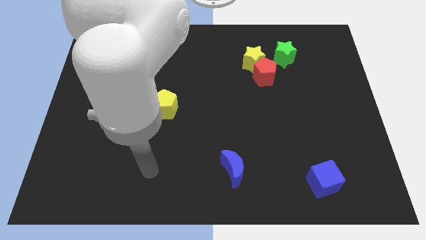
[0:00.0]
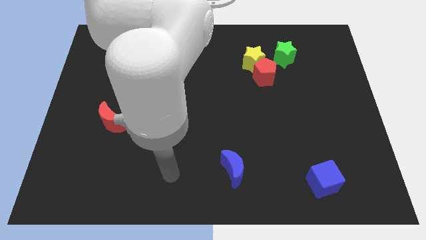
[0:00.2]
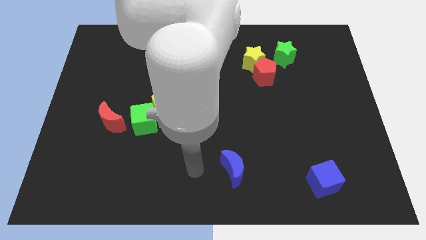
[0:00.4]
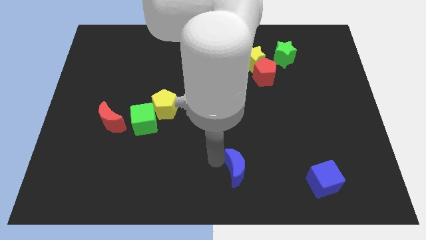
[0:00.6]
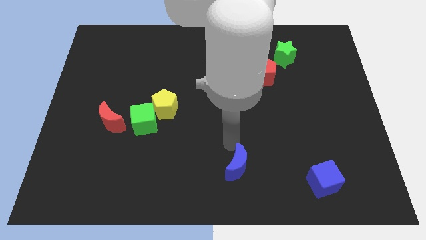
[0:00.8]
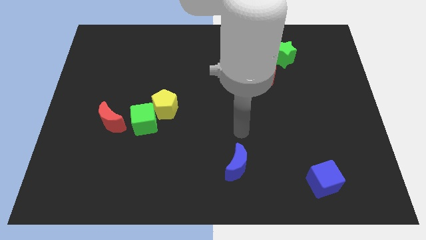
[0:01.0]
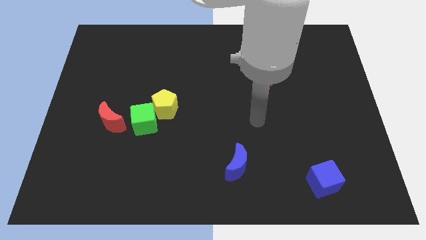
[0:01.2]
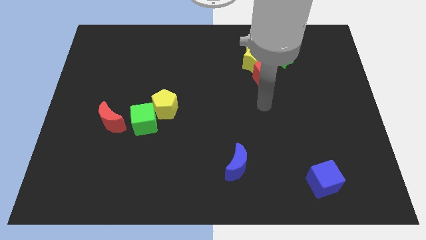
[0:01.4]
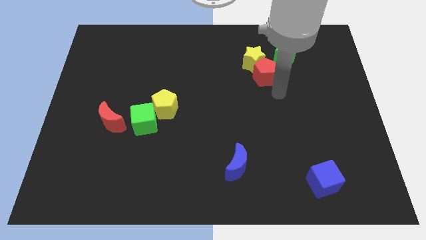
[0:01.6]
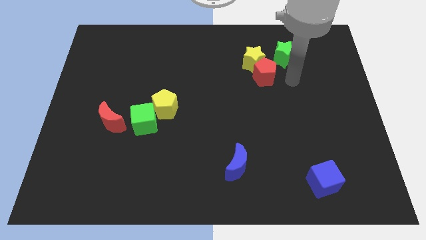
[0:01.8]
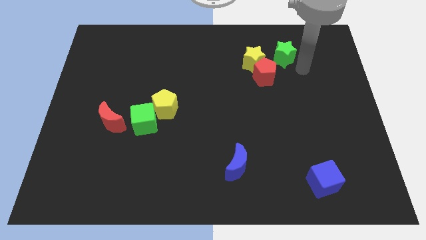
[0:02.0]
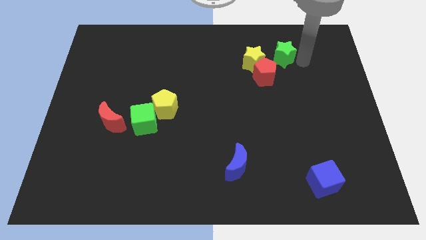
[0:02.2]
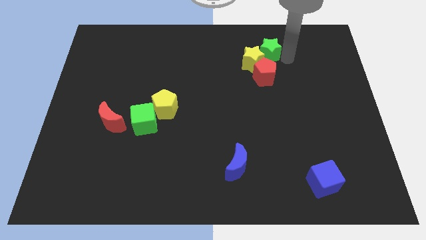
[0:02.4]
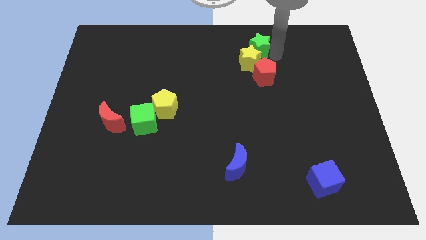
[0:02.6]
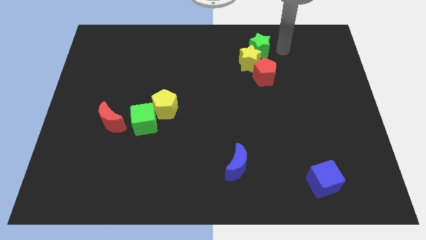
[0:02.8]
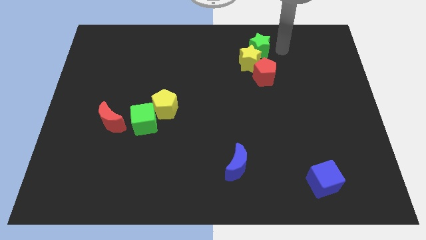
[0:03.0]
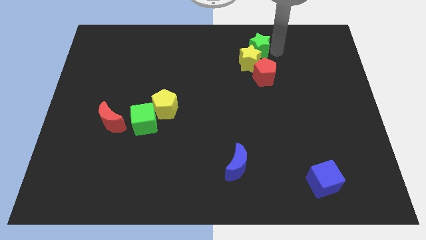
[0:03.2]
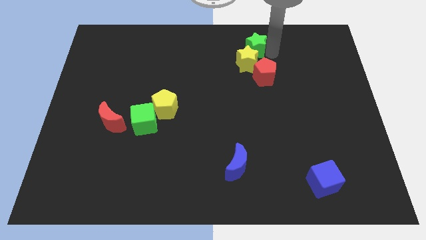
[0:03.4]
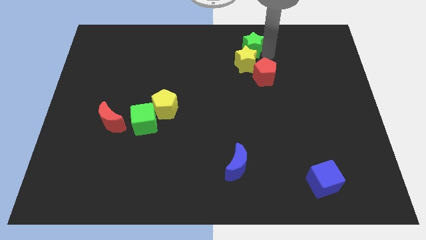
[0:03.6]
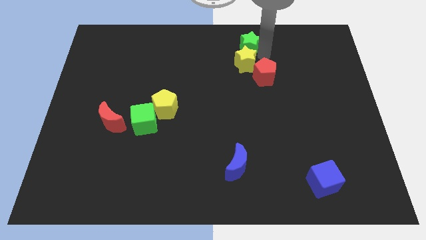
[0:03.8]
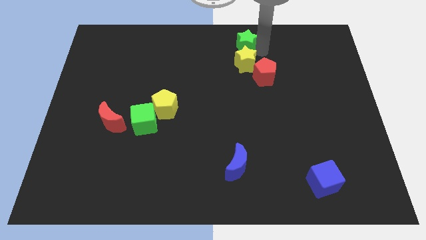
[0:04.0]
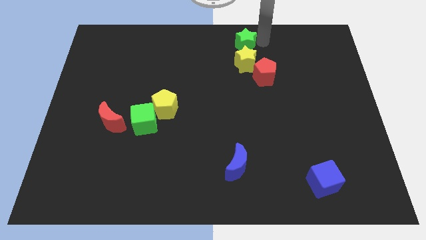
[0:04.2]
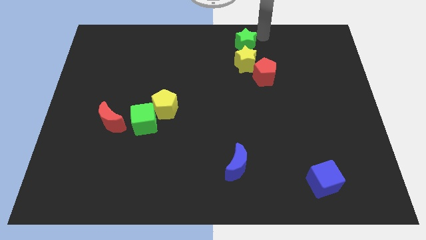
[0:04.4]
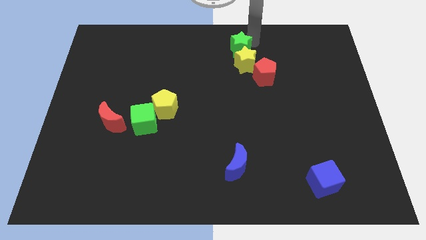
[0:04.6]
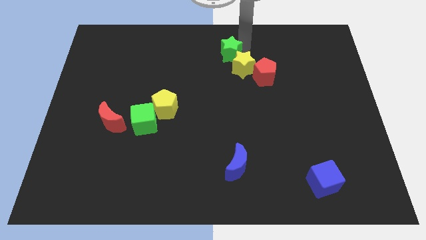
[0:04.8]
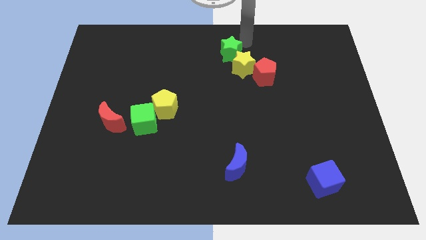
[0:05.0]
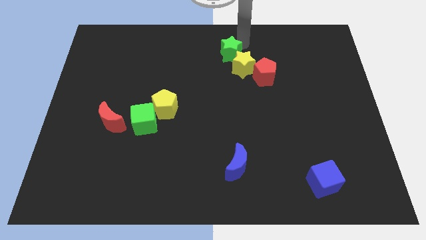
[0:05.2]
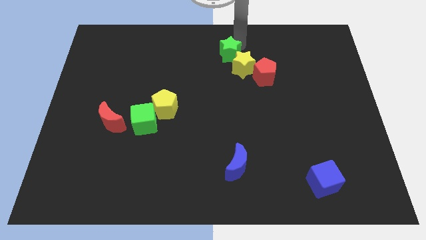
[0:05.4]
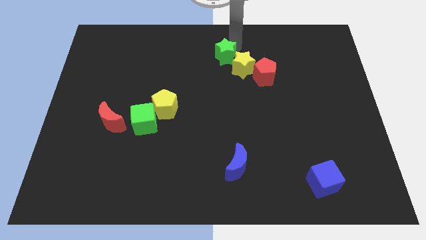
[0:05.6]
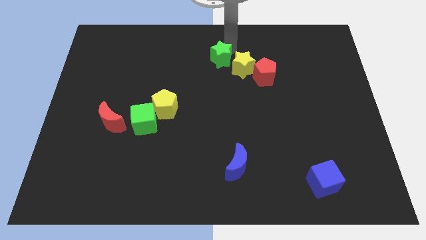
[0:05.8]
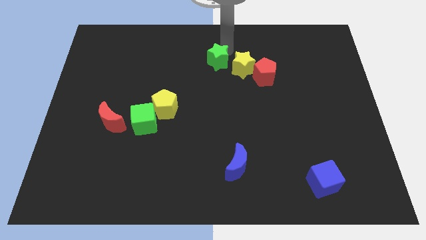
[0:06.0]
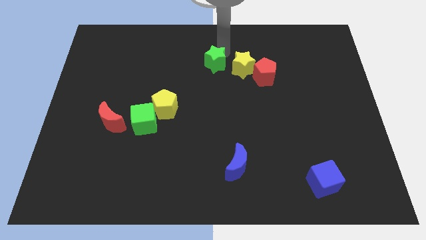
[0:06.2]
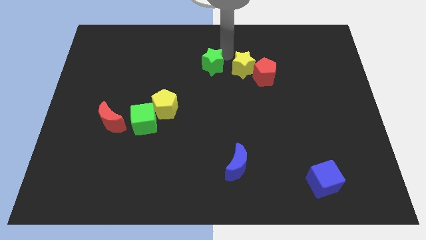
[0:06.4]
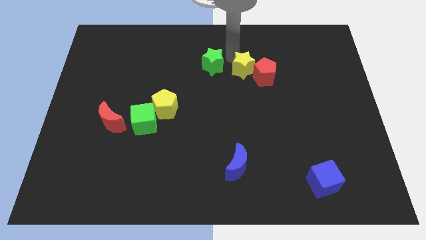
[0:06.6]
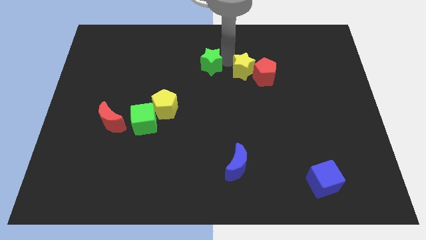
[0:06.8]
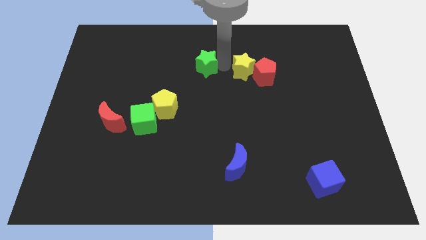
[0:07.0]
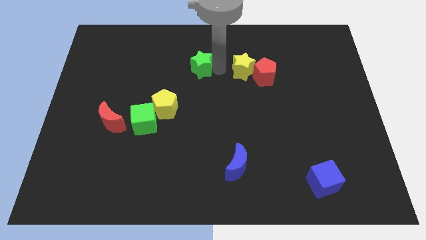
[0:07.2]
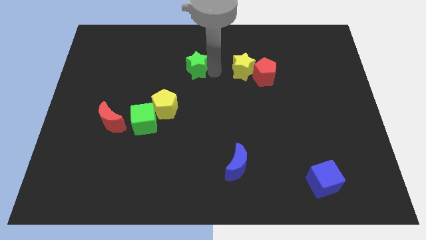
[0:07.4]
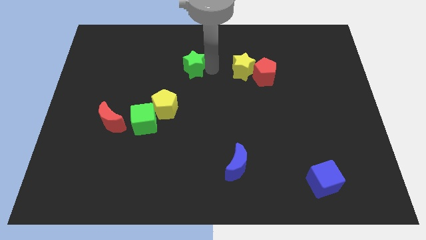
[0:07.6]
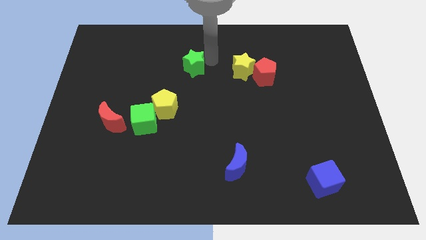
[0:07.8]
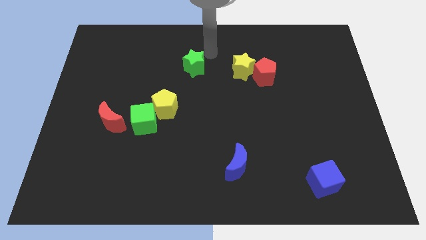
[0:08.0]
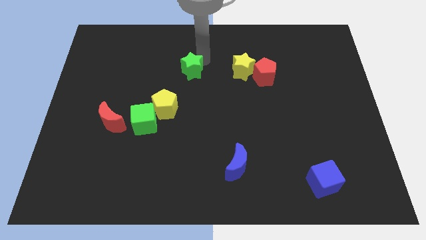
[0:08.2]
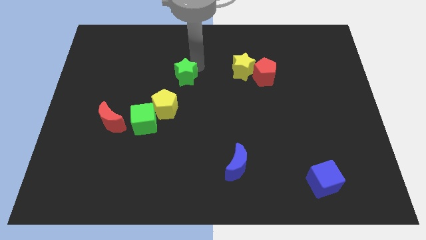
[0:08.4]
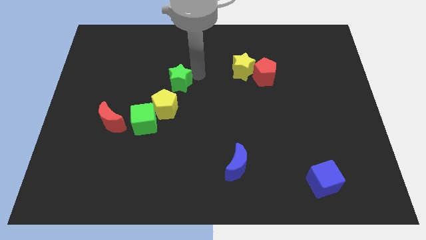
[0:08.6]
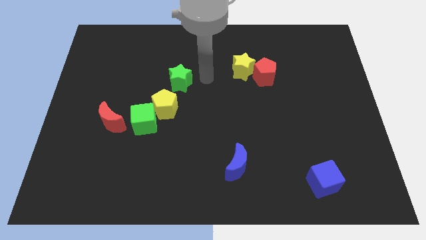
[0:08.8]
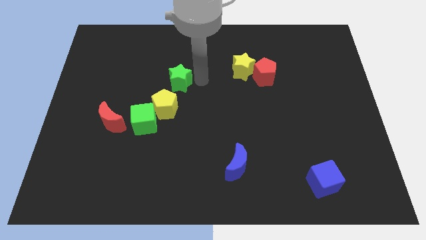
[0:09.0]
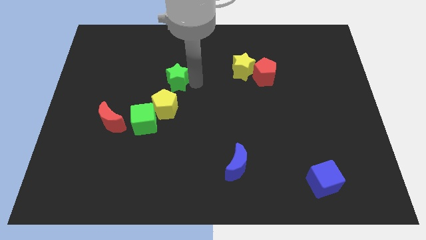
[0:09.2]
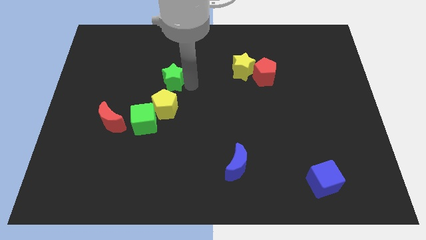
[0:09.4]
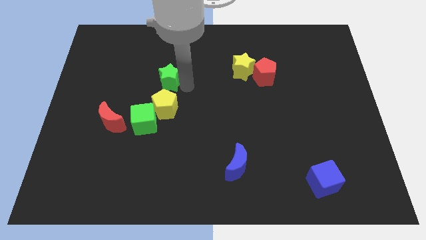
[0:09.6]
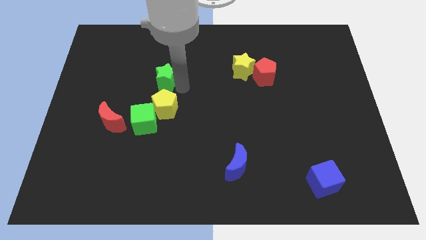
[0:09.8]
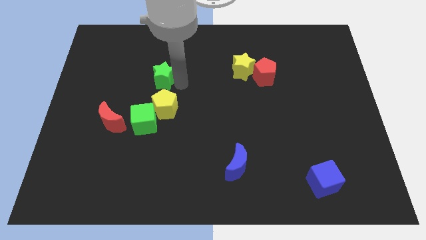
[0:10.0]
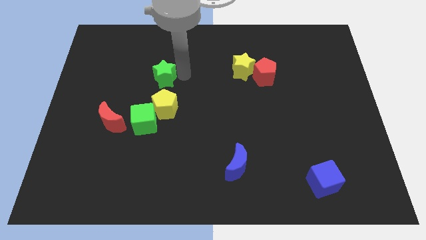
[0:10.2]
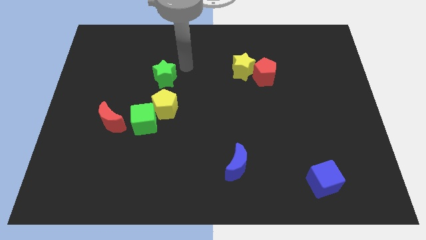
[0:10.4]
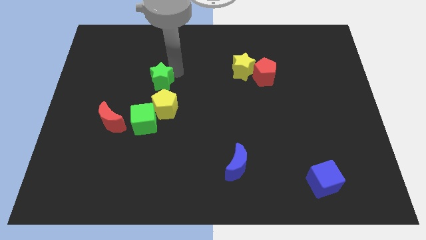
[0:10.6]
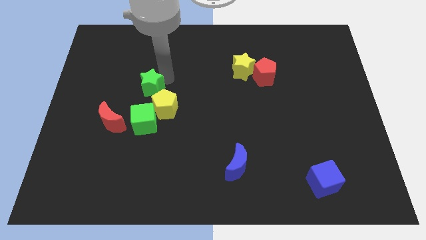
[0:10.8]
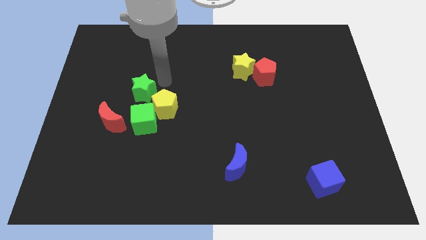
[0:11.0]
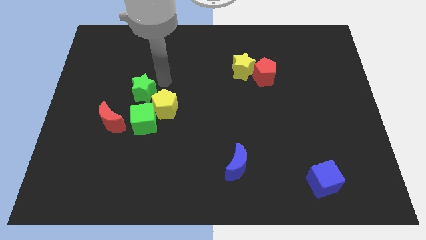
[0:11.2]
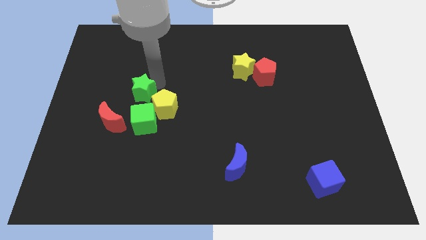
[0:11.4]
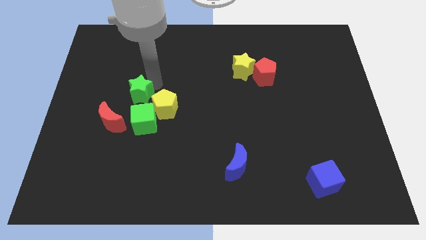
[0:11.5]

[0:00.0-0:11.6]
slide the green star to the top left side of the green cube

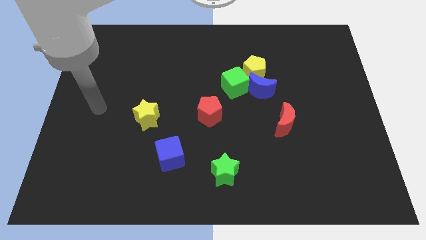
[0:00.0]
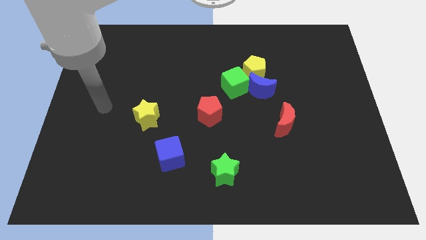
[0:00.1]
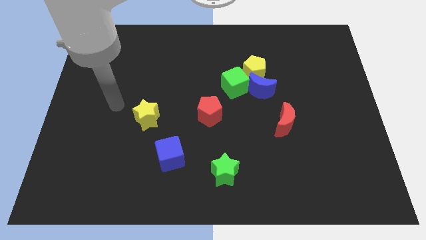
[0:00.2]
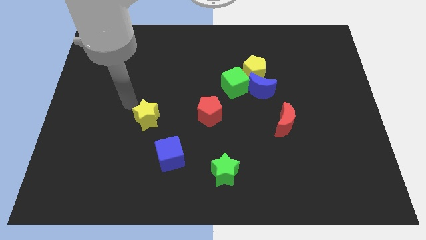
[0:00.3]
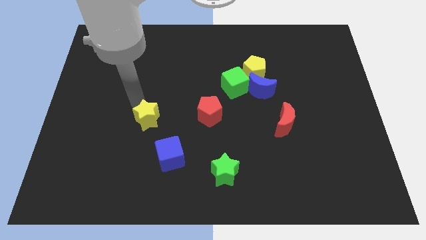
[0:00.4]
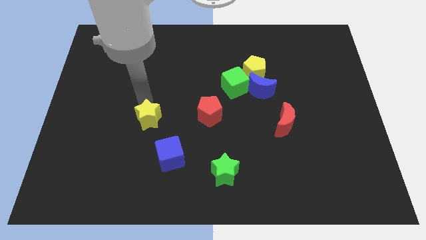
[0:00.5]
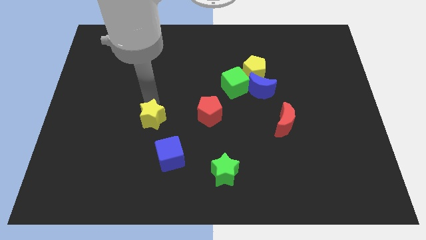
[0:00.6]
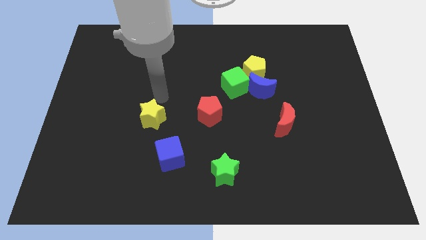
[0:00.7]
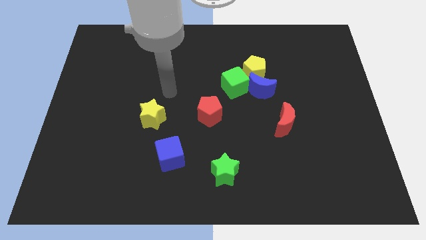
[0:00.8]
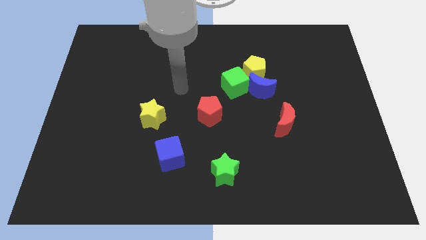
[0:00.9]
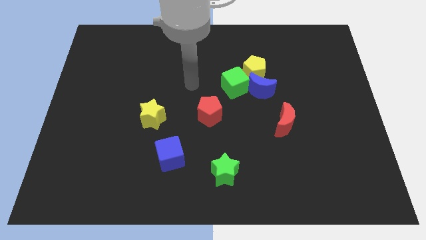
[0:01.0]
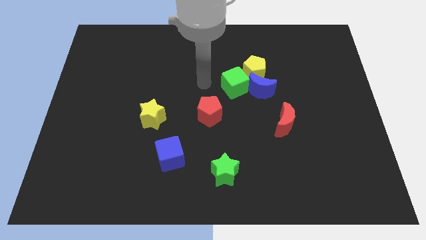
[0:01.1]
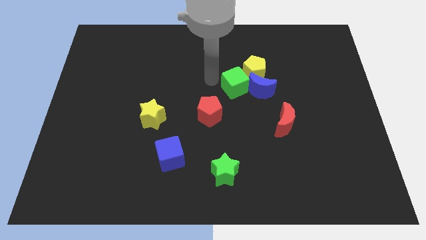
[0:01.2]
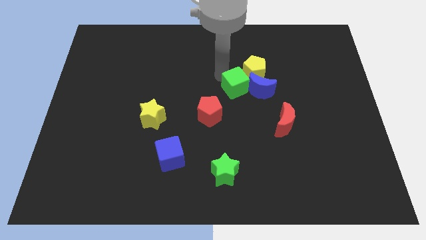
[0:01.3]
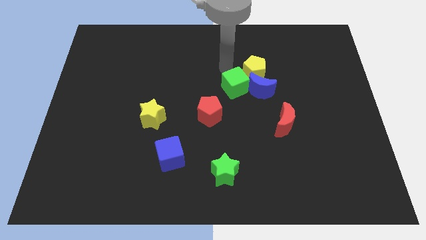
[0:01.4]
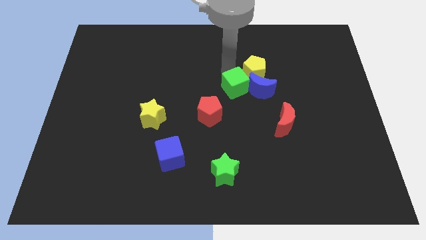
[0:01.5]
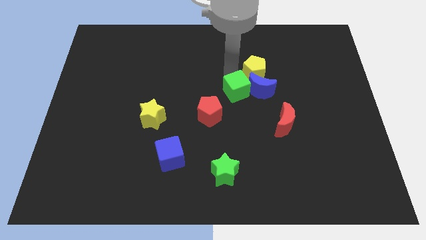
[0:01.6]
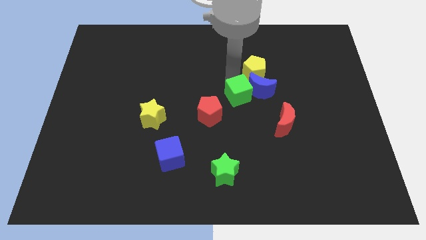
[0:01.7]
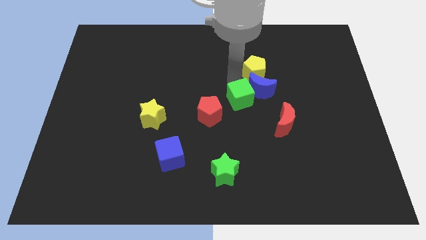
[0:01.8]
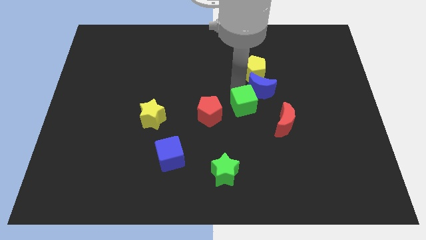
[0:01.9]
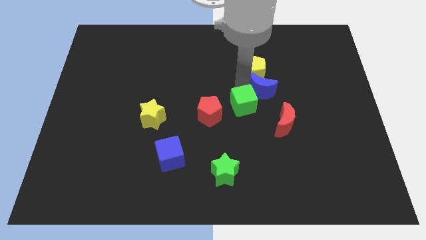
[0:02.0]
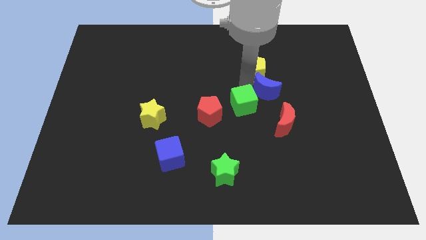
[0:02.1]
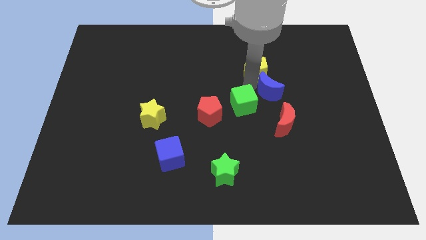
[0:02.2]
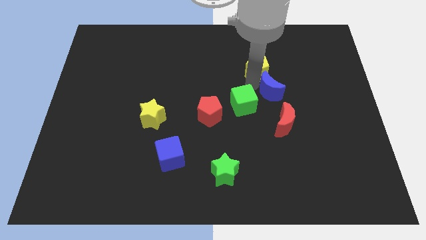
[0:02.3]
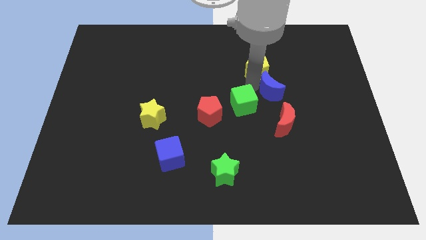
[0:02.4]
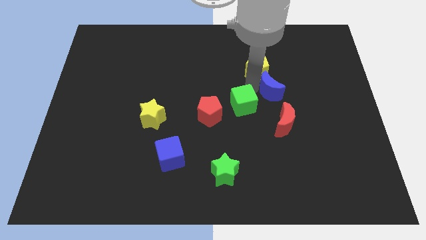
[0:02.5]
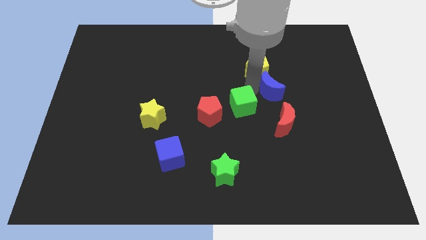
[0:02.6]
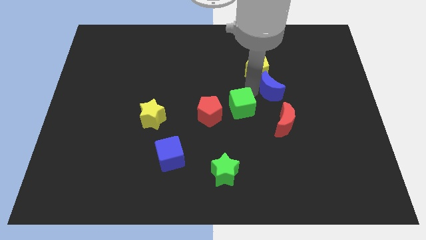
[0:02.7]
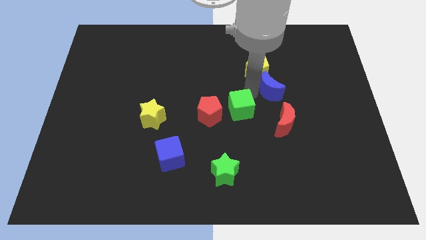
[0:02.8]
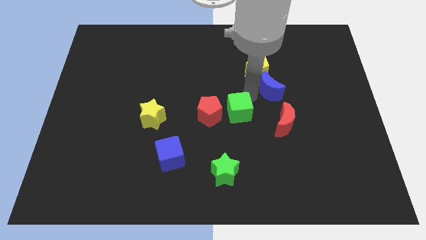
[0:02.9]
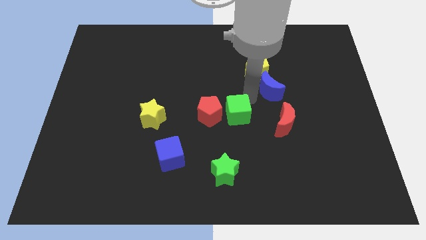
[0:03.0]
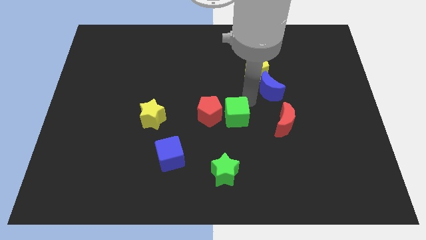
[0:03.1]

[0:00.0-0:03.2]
push the green cube above the green star
